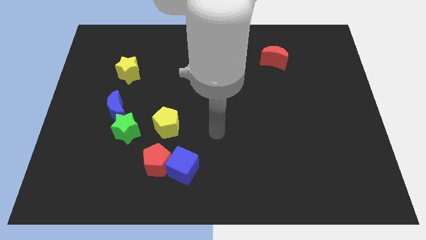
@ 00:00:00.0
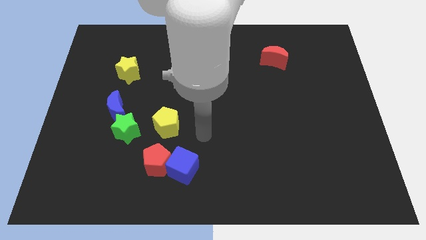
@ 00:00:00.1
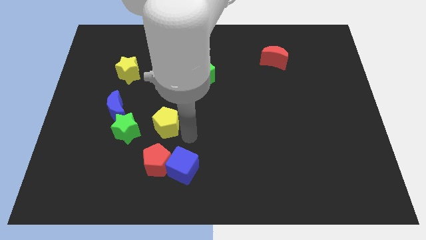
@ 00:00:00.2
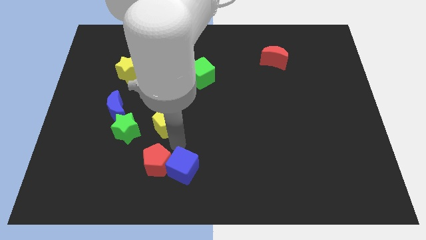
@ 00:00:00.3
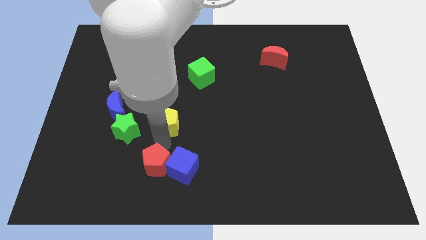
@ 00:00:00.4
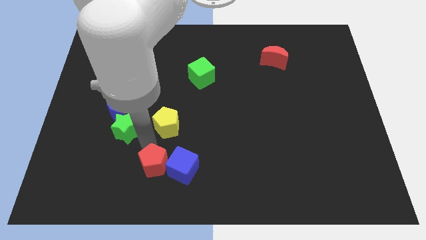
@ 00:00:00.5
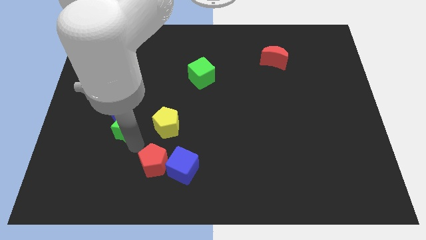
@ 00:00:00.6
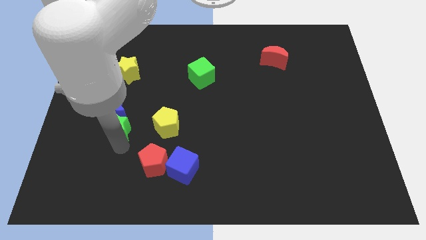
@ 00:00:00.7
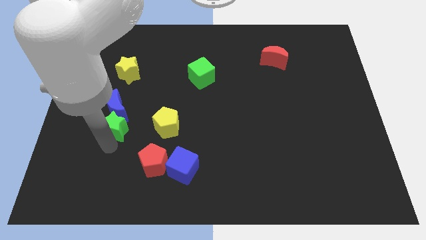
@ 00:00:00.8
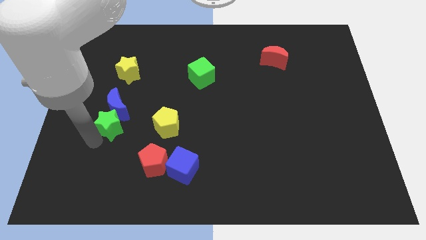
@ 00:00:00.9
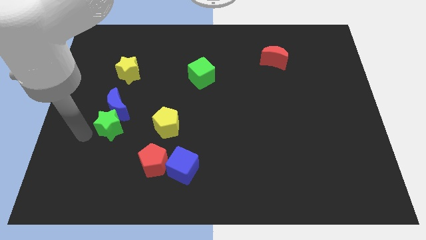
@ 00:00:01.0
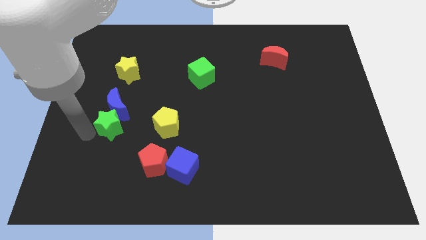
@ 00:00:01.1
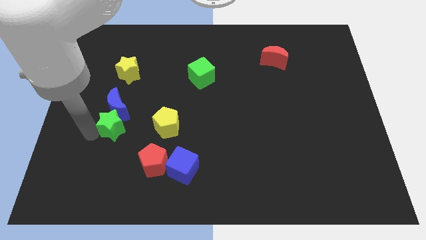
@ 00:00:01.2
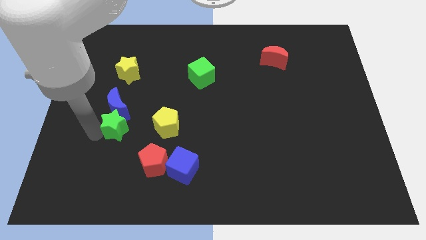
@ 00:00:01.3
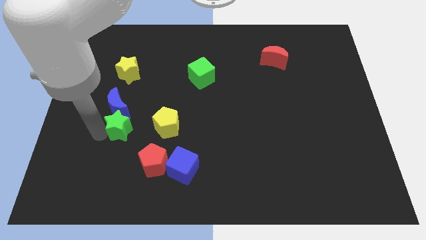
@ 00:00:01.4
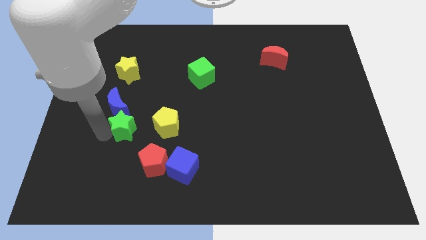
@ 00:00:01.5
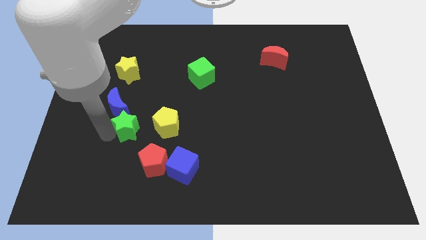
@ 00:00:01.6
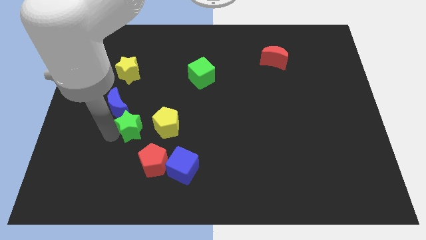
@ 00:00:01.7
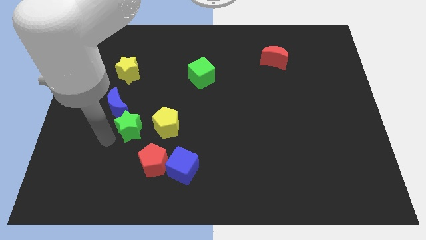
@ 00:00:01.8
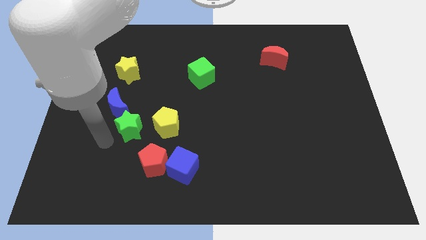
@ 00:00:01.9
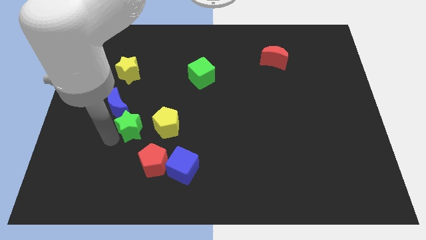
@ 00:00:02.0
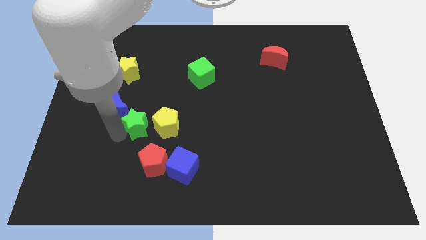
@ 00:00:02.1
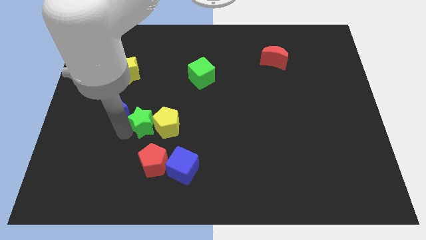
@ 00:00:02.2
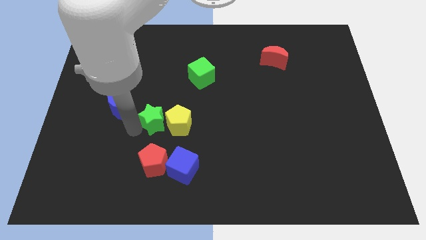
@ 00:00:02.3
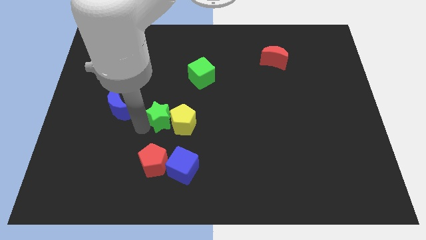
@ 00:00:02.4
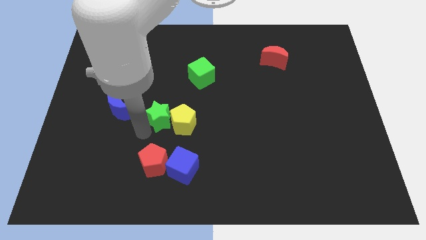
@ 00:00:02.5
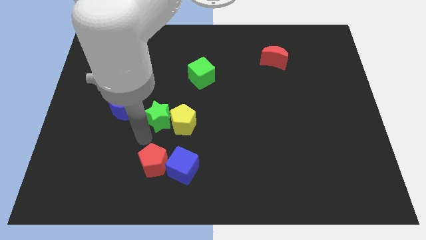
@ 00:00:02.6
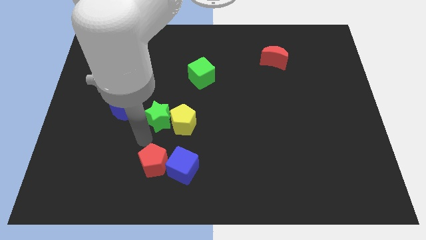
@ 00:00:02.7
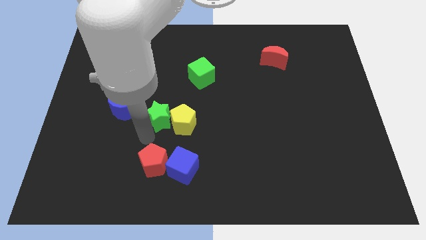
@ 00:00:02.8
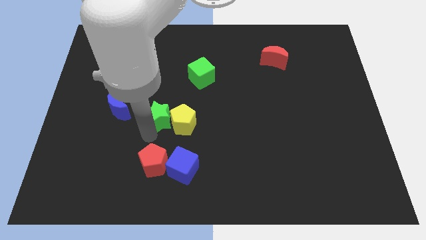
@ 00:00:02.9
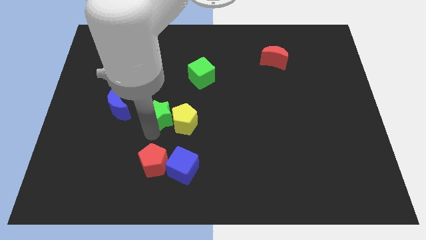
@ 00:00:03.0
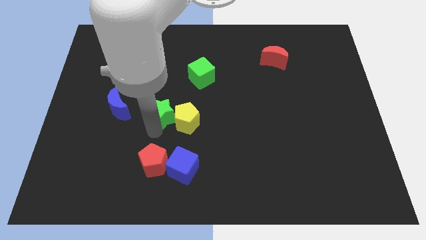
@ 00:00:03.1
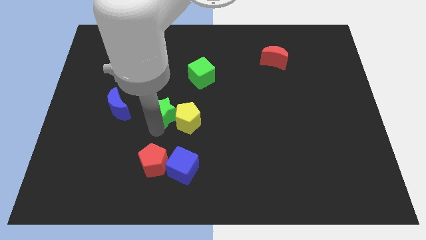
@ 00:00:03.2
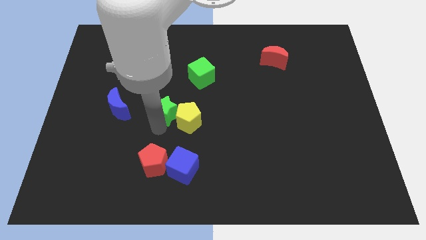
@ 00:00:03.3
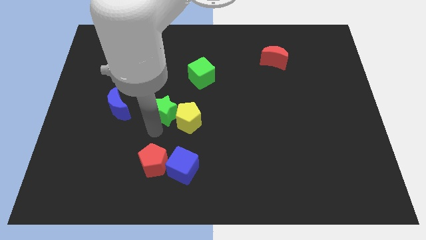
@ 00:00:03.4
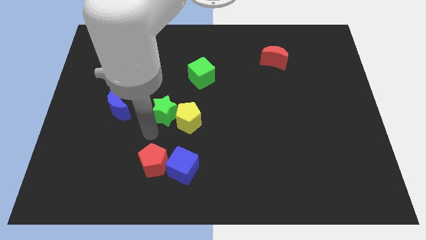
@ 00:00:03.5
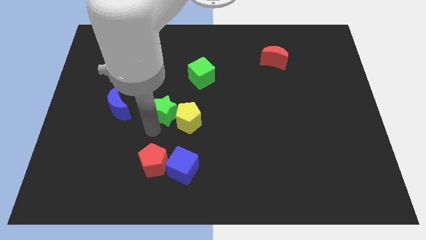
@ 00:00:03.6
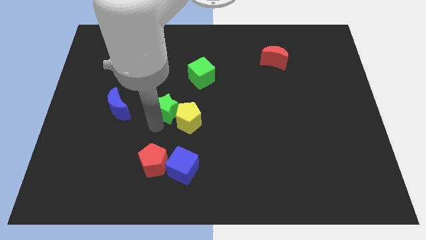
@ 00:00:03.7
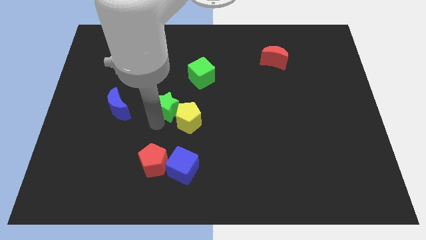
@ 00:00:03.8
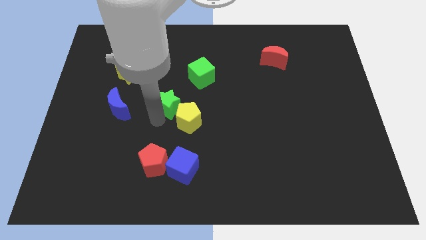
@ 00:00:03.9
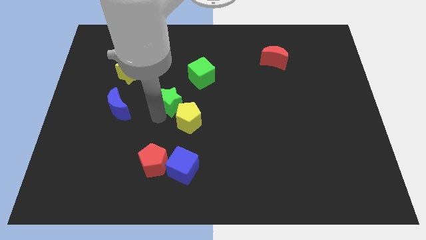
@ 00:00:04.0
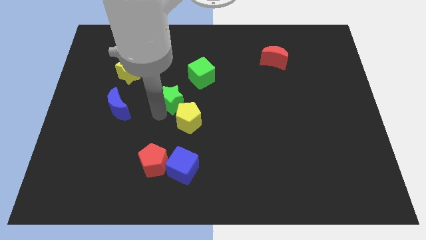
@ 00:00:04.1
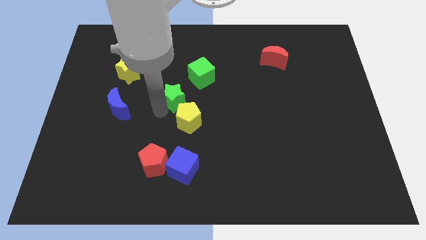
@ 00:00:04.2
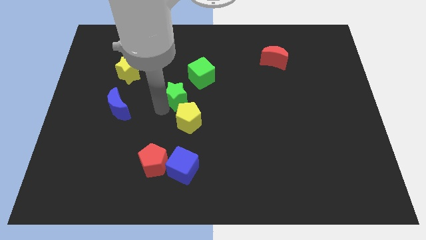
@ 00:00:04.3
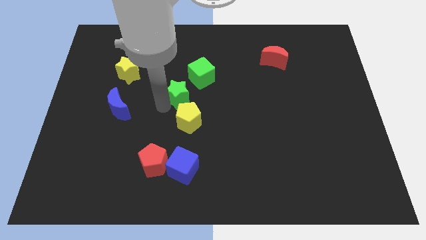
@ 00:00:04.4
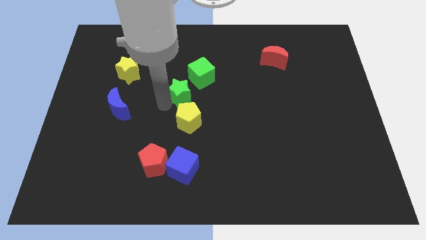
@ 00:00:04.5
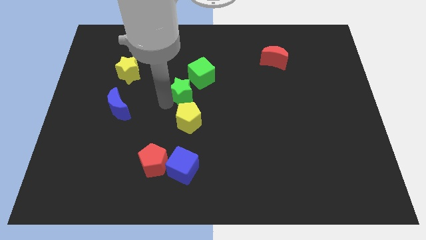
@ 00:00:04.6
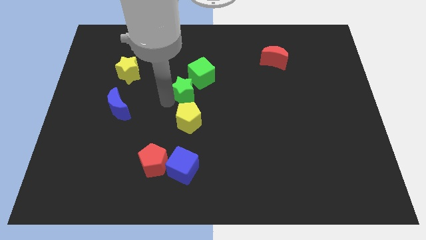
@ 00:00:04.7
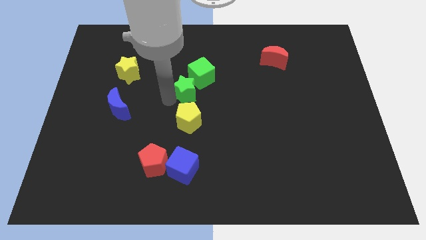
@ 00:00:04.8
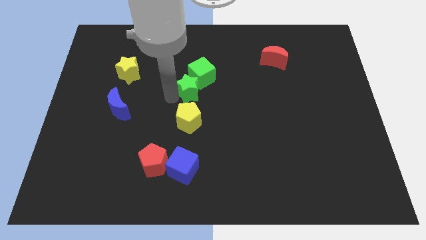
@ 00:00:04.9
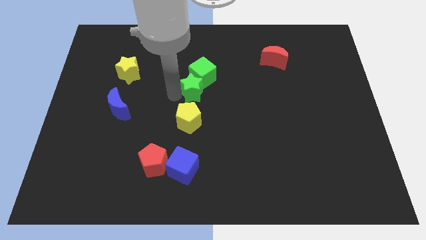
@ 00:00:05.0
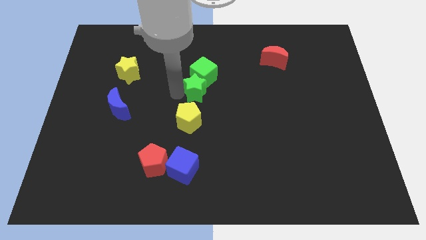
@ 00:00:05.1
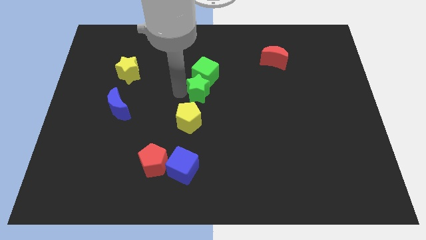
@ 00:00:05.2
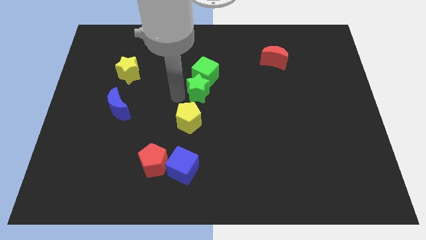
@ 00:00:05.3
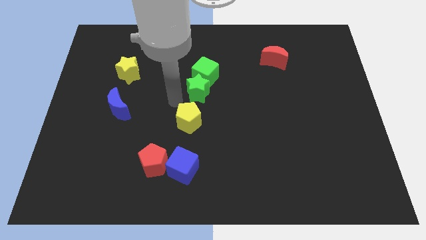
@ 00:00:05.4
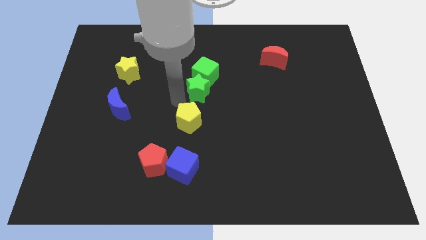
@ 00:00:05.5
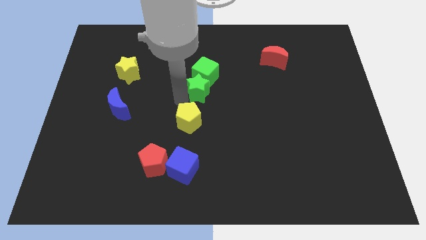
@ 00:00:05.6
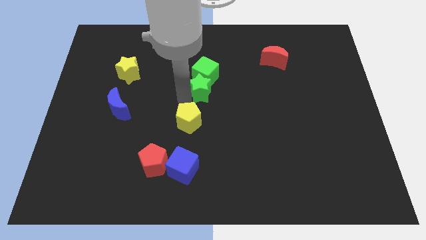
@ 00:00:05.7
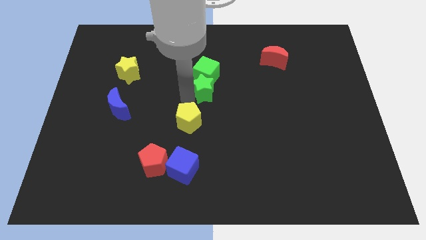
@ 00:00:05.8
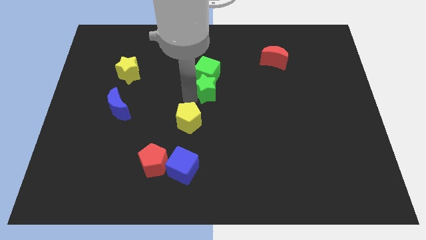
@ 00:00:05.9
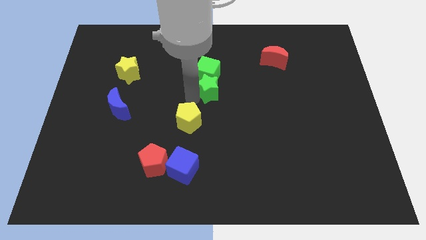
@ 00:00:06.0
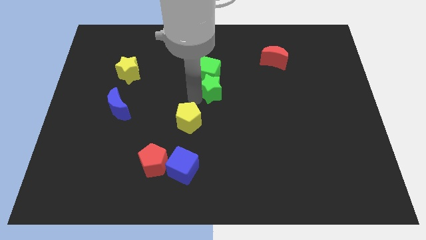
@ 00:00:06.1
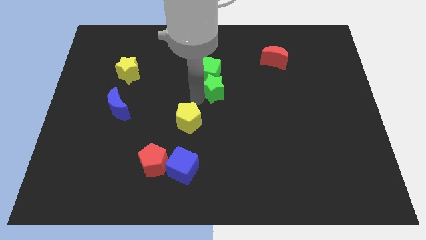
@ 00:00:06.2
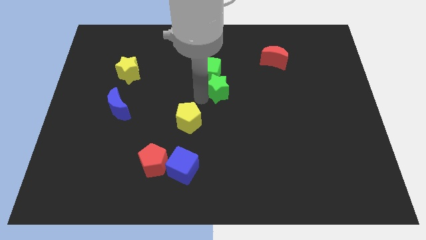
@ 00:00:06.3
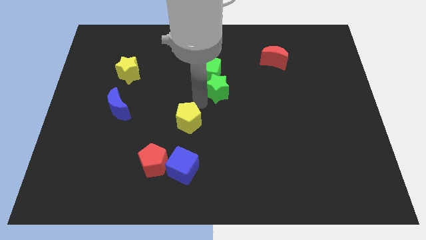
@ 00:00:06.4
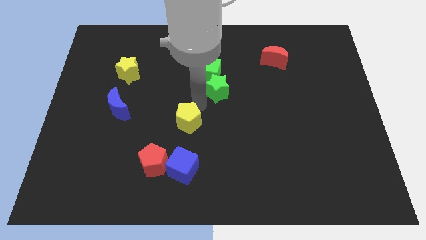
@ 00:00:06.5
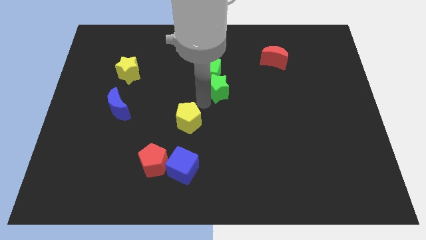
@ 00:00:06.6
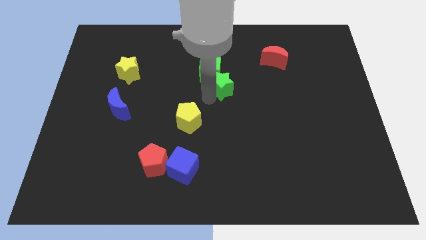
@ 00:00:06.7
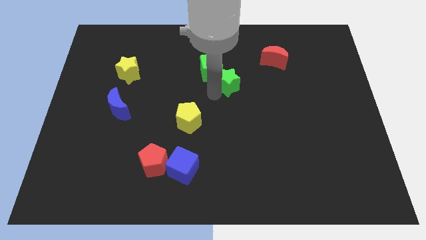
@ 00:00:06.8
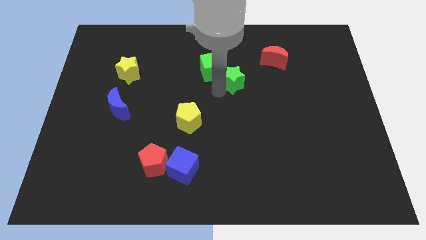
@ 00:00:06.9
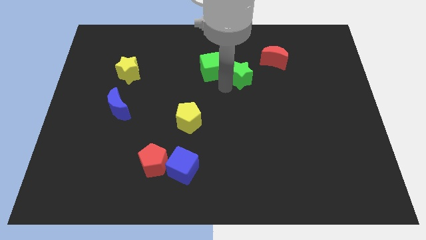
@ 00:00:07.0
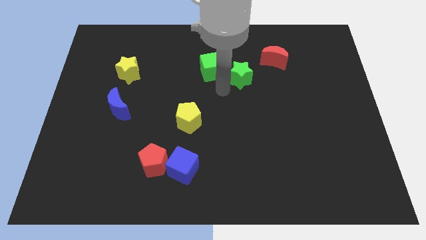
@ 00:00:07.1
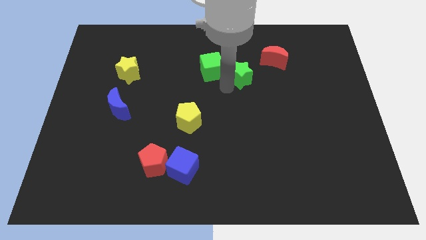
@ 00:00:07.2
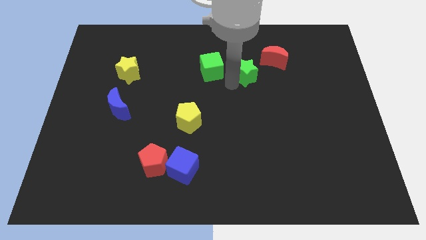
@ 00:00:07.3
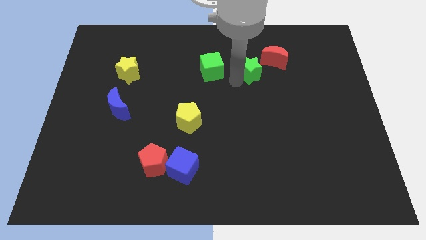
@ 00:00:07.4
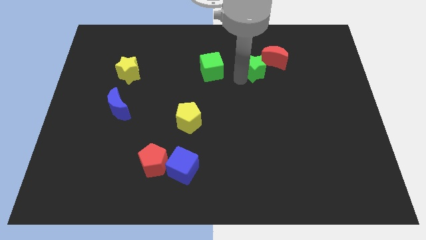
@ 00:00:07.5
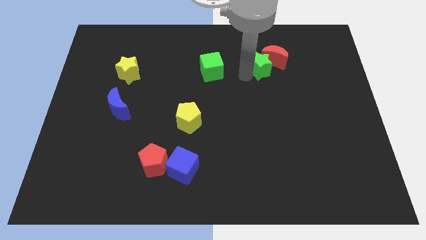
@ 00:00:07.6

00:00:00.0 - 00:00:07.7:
move the green star next to the red moon
